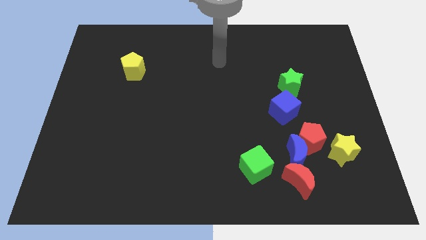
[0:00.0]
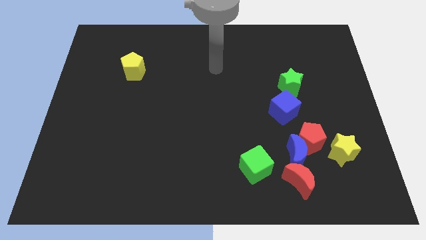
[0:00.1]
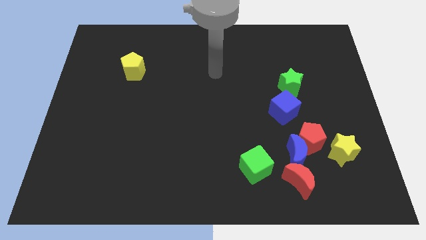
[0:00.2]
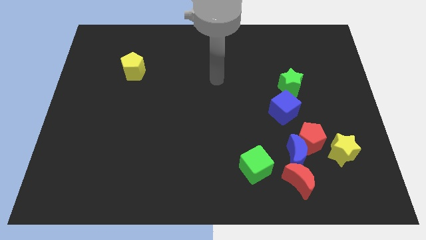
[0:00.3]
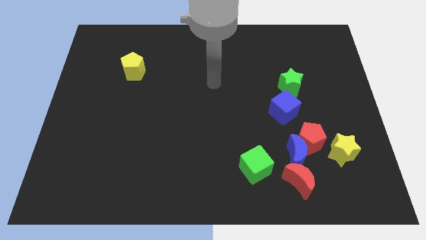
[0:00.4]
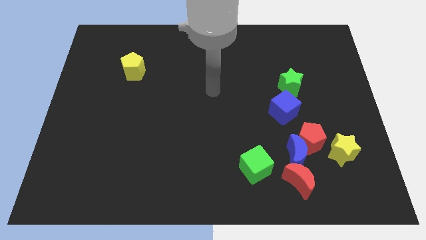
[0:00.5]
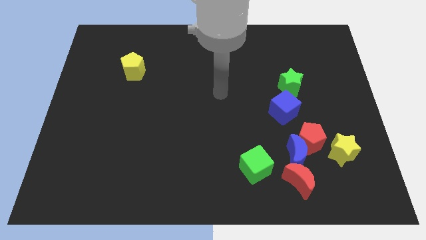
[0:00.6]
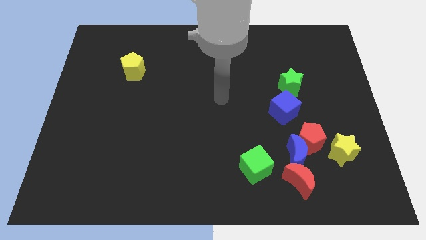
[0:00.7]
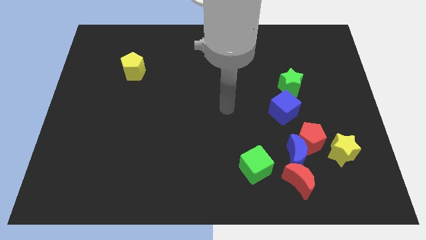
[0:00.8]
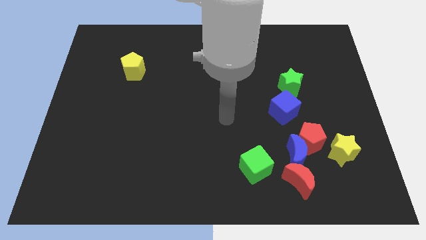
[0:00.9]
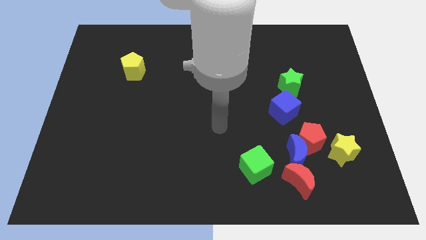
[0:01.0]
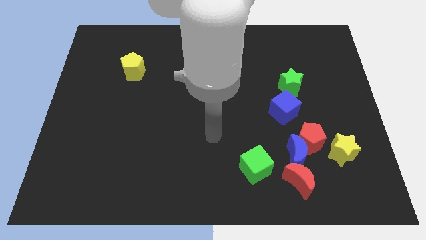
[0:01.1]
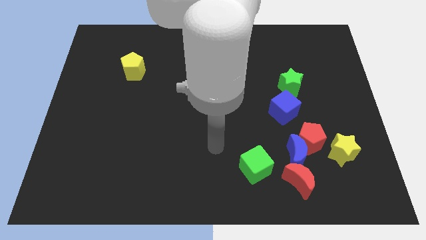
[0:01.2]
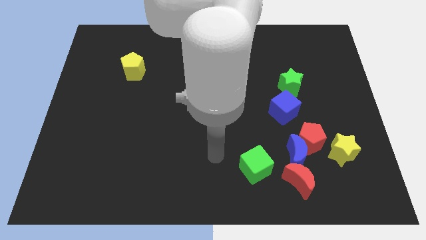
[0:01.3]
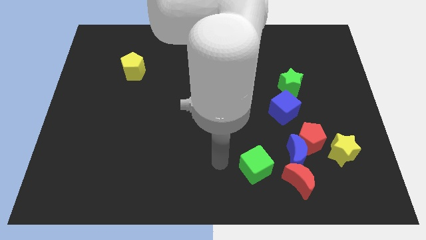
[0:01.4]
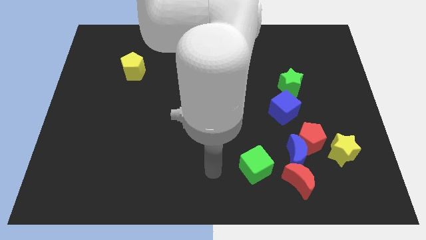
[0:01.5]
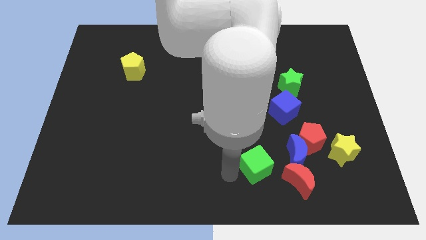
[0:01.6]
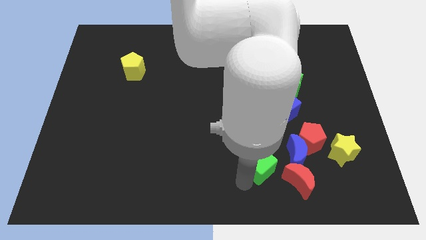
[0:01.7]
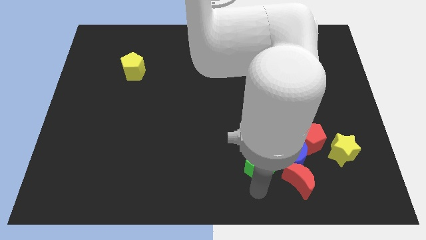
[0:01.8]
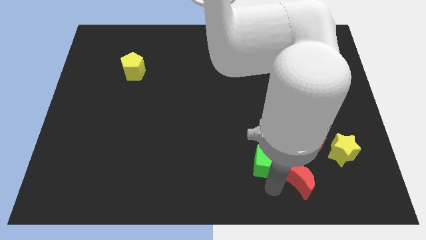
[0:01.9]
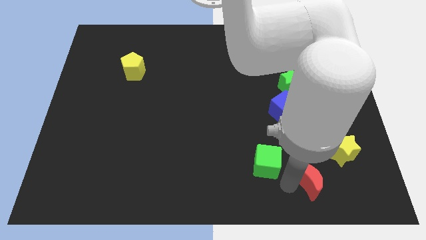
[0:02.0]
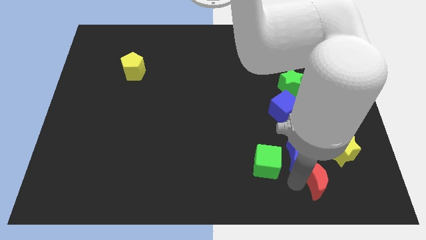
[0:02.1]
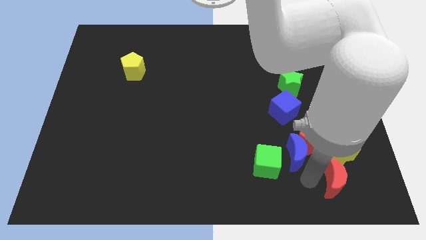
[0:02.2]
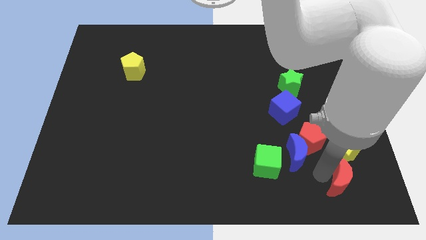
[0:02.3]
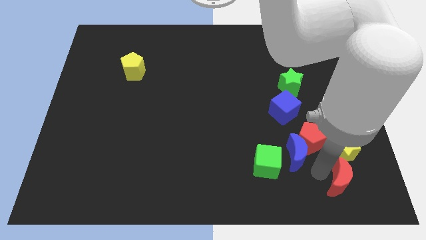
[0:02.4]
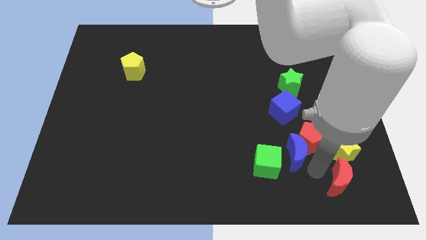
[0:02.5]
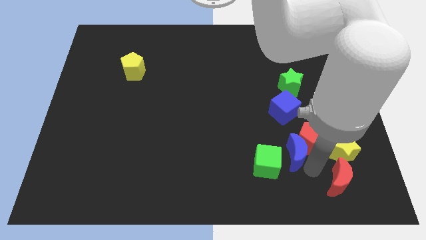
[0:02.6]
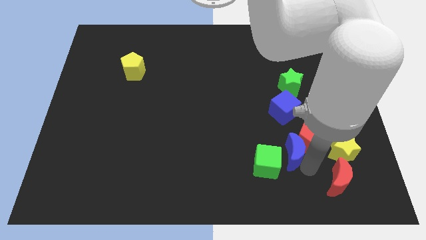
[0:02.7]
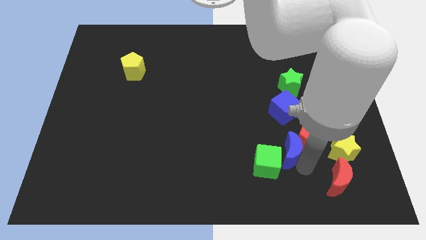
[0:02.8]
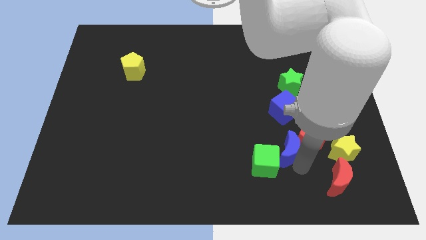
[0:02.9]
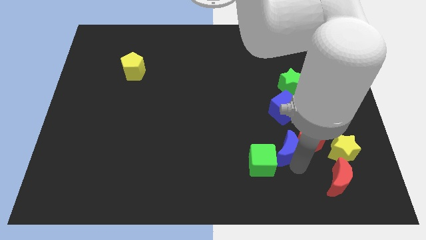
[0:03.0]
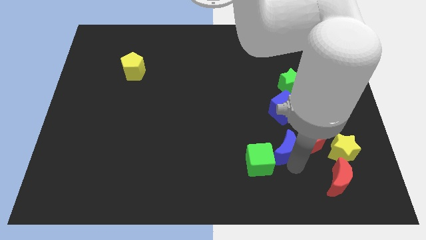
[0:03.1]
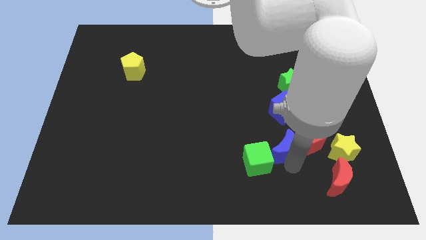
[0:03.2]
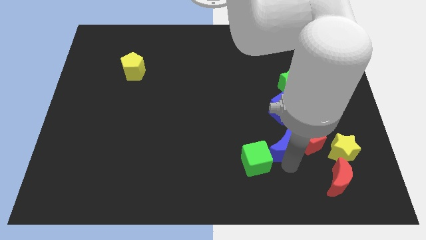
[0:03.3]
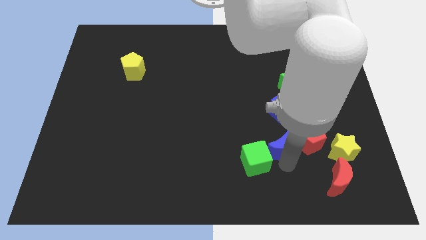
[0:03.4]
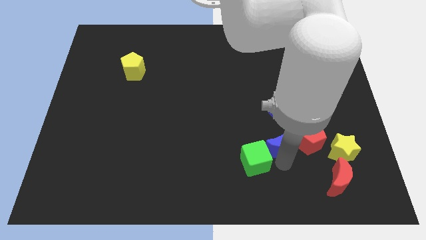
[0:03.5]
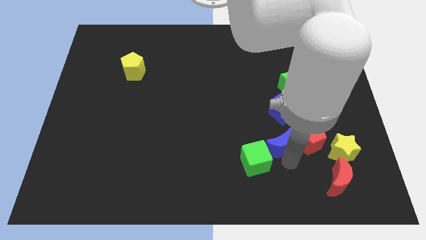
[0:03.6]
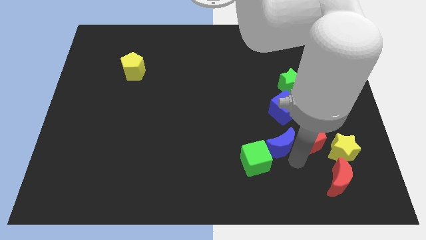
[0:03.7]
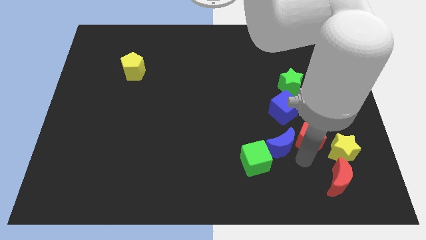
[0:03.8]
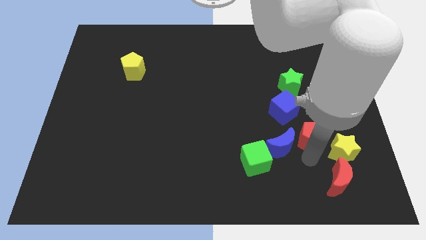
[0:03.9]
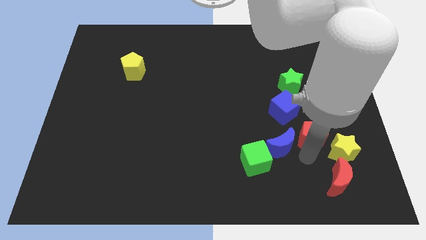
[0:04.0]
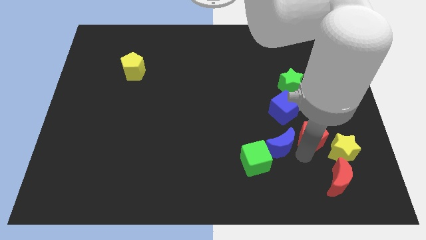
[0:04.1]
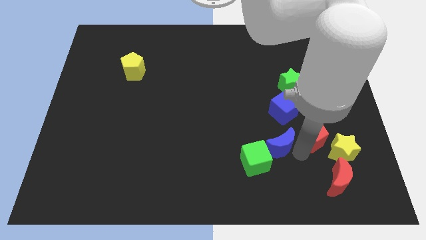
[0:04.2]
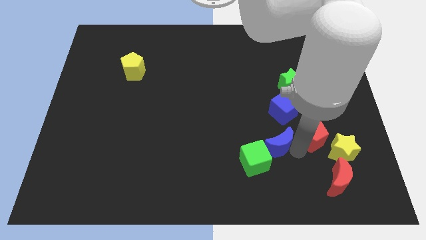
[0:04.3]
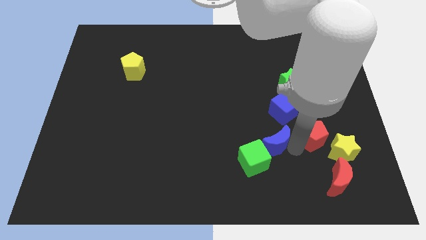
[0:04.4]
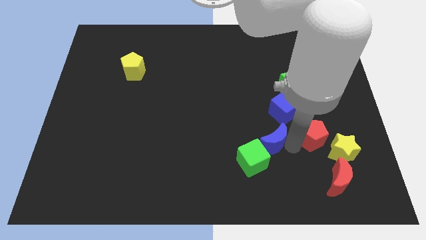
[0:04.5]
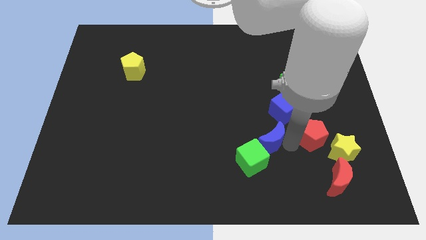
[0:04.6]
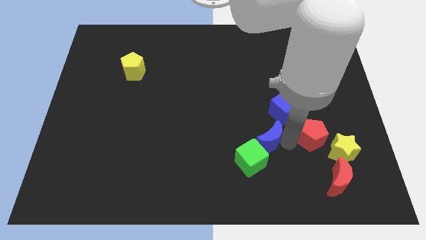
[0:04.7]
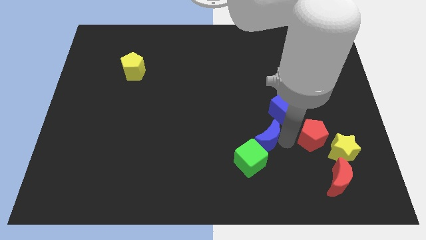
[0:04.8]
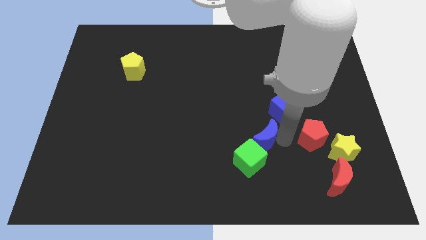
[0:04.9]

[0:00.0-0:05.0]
separate the blue moon from the group

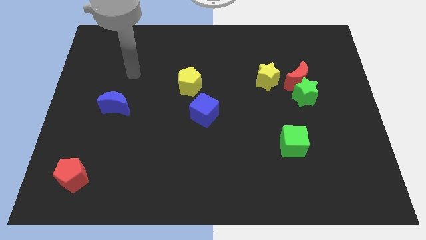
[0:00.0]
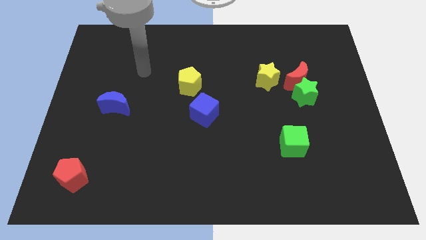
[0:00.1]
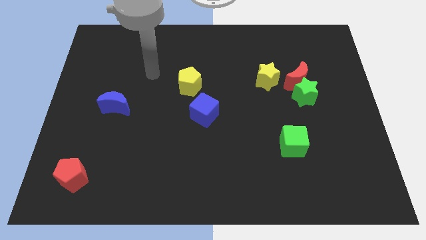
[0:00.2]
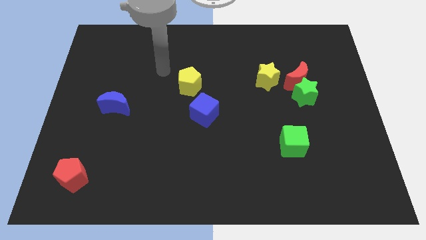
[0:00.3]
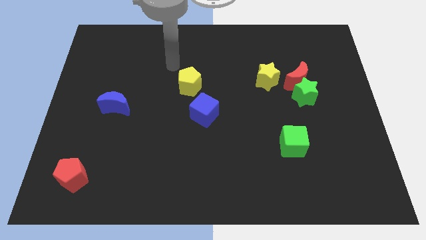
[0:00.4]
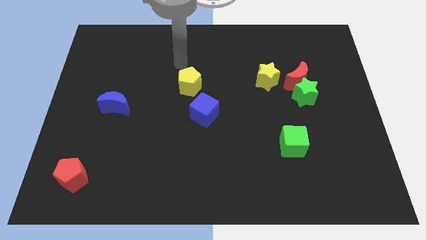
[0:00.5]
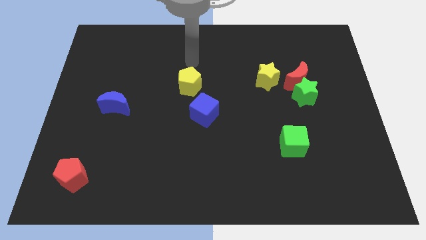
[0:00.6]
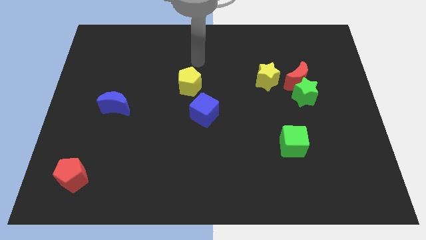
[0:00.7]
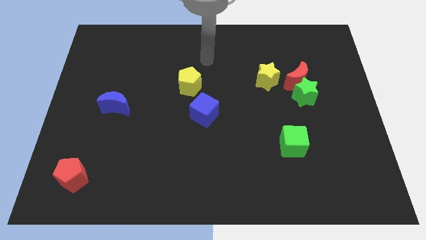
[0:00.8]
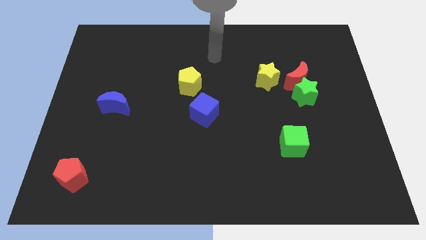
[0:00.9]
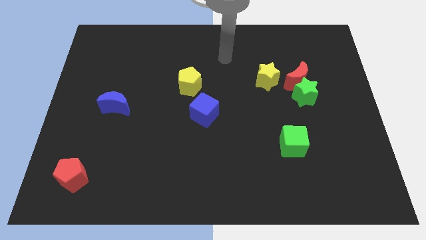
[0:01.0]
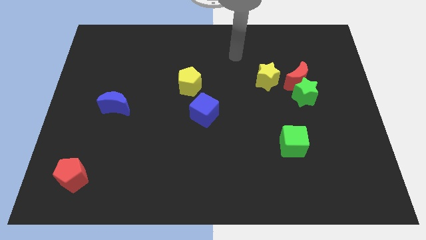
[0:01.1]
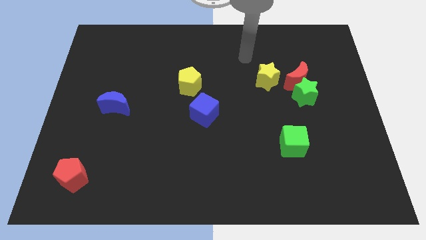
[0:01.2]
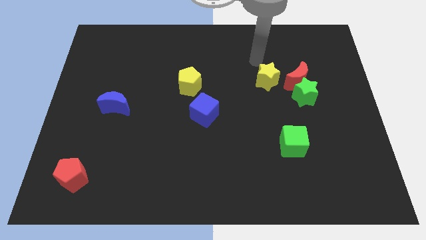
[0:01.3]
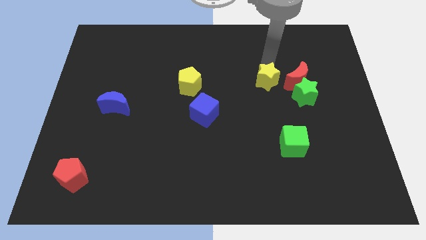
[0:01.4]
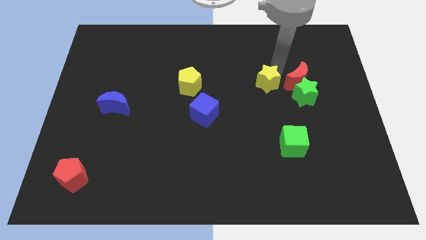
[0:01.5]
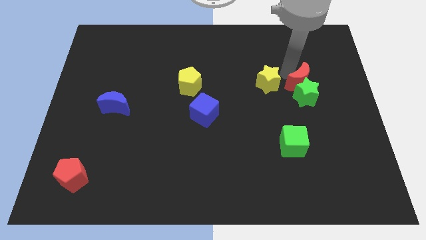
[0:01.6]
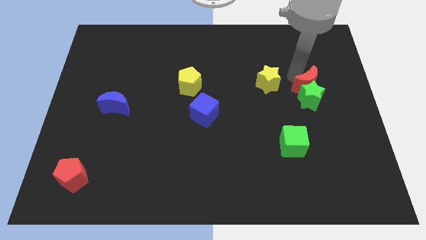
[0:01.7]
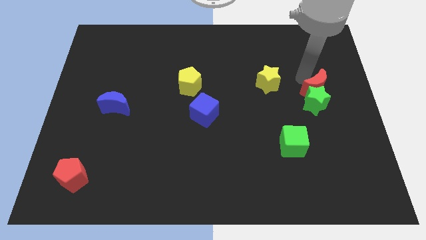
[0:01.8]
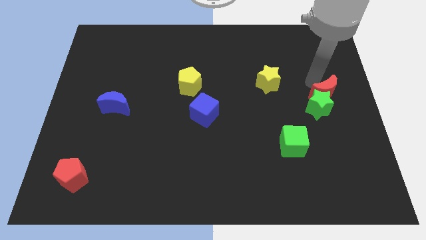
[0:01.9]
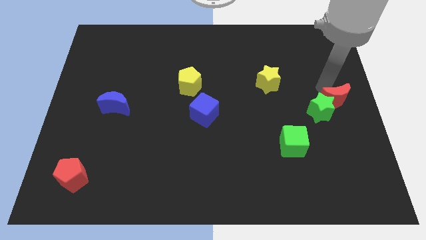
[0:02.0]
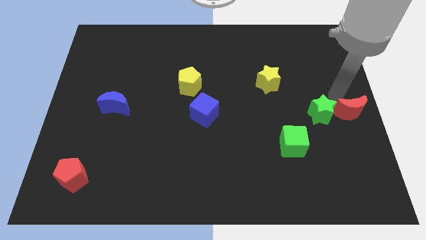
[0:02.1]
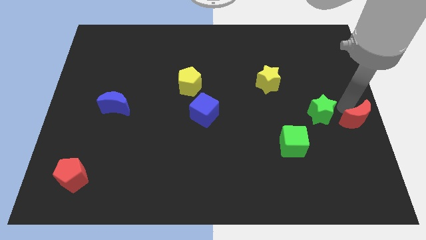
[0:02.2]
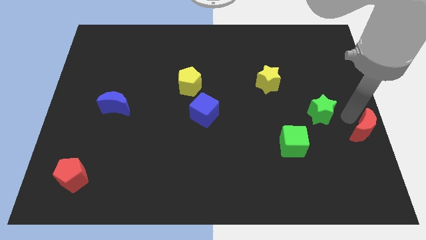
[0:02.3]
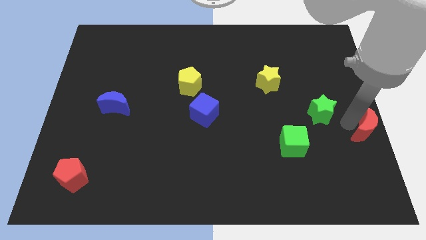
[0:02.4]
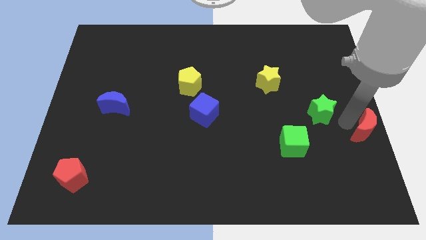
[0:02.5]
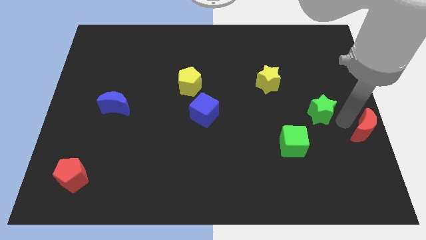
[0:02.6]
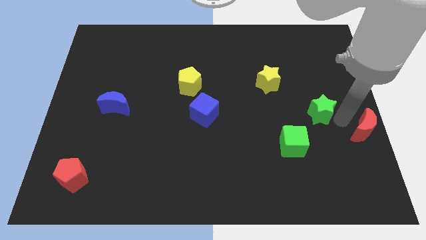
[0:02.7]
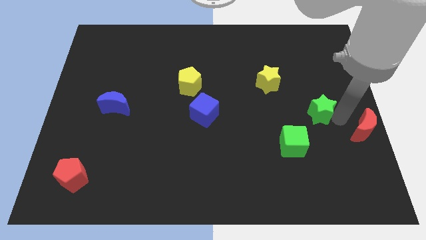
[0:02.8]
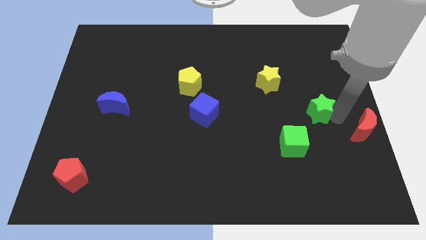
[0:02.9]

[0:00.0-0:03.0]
move the green star away from the red moon

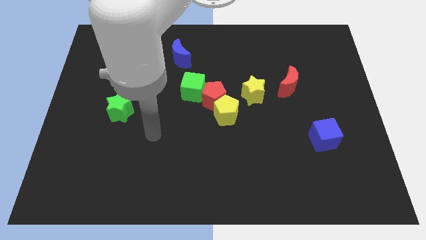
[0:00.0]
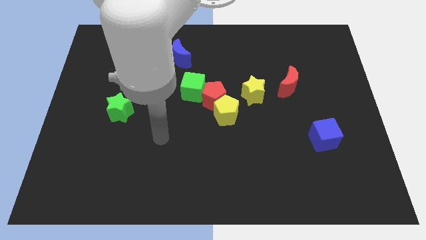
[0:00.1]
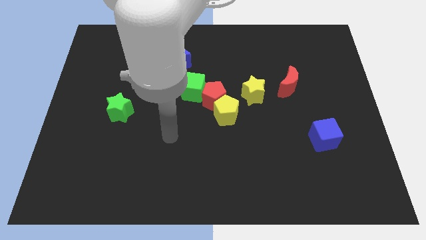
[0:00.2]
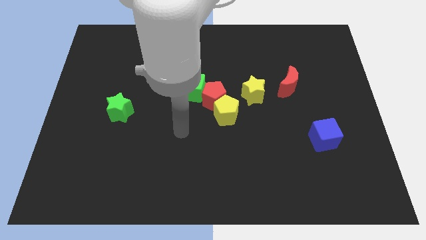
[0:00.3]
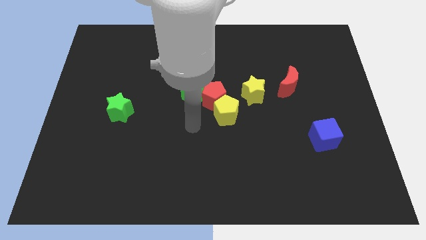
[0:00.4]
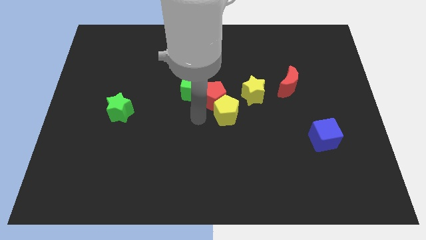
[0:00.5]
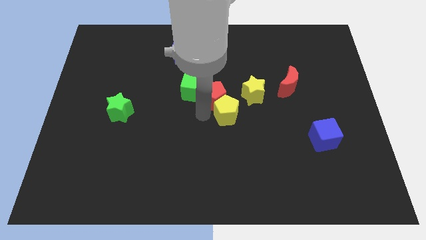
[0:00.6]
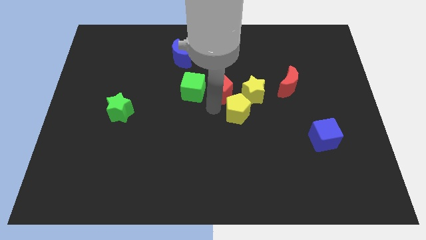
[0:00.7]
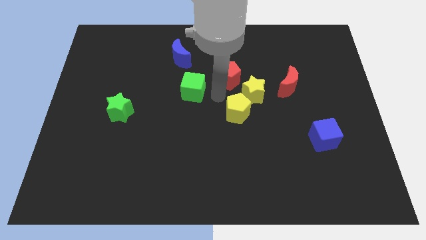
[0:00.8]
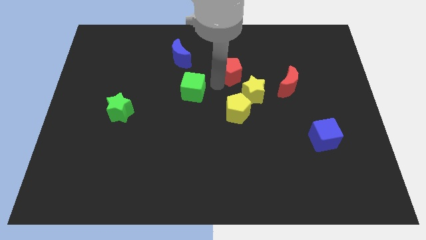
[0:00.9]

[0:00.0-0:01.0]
separate the green cube from the red pentagon

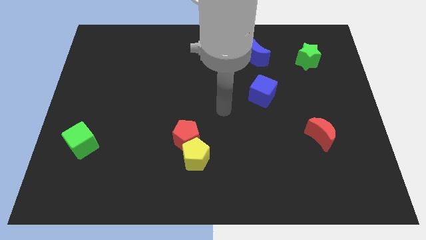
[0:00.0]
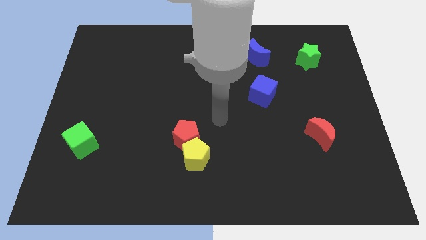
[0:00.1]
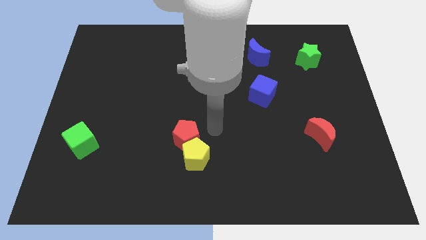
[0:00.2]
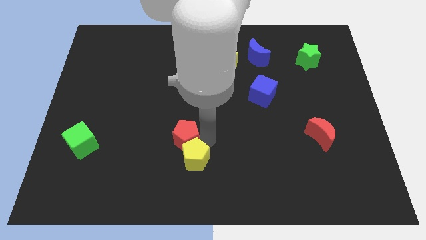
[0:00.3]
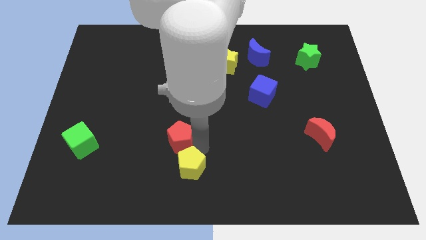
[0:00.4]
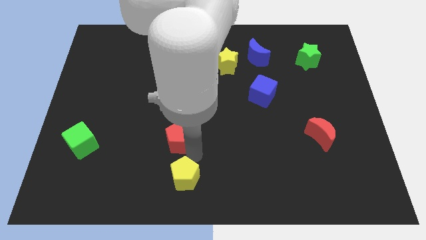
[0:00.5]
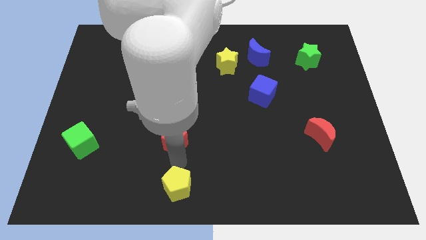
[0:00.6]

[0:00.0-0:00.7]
separate the red pentagon from the yellow pentagon
